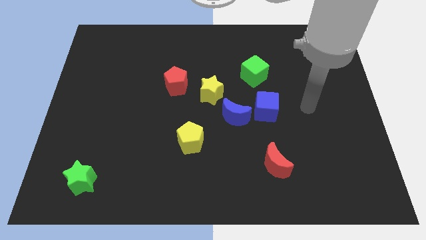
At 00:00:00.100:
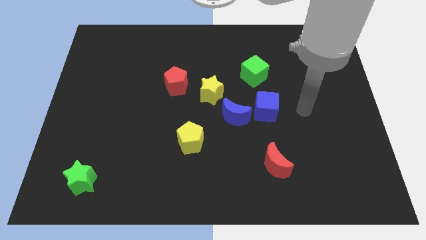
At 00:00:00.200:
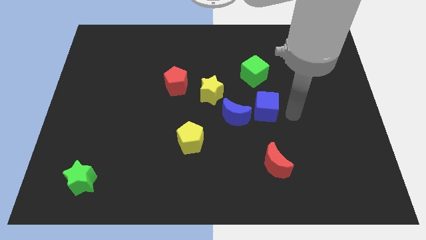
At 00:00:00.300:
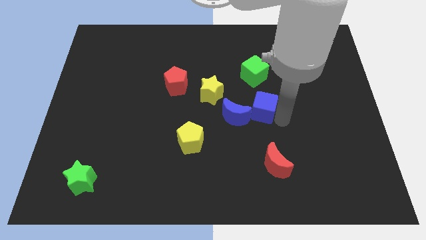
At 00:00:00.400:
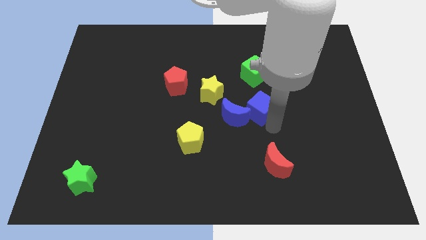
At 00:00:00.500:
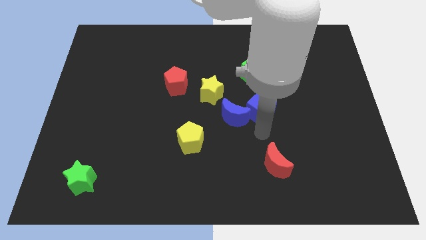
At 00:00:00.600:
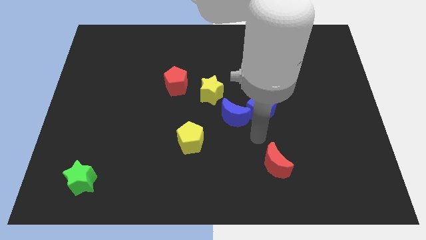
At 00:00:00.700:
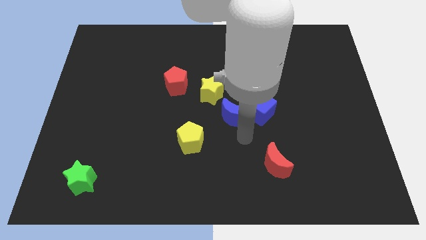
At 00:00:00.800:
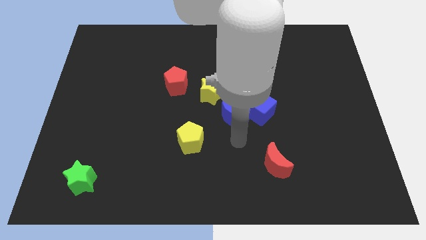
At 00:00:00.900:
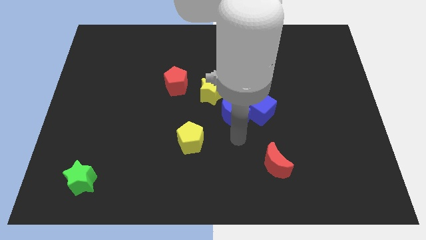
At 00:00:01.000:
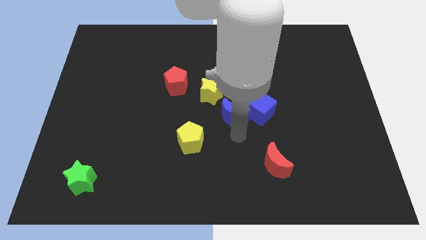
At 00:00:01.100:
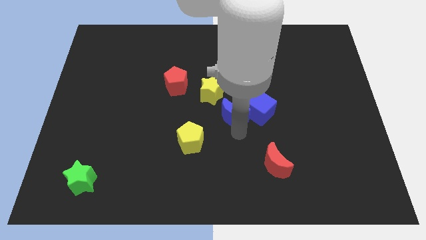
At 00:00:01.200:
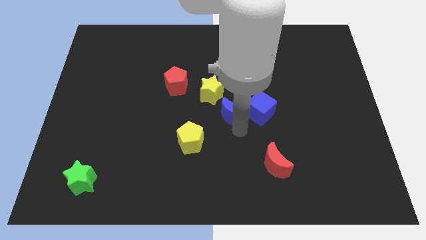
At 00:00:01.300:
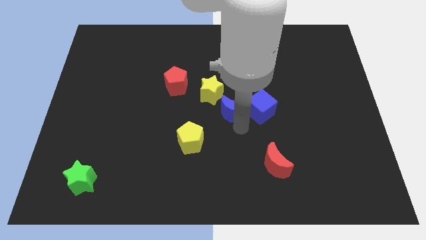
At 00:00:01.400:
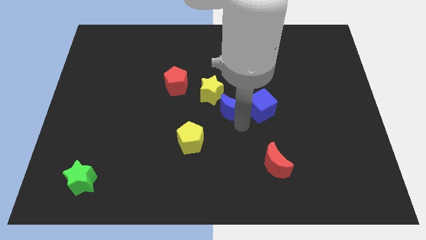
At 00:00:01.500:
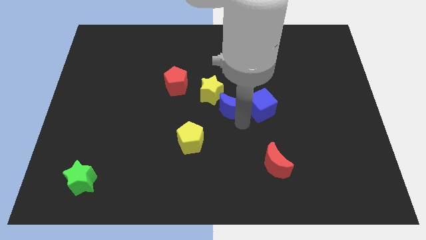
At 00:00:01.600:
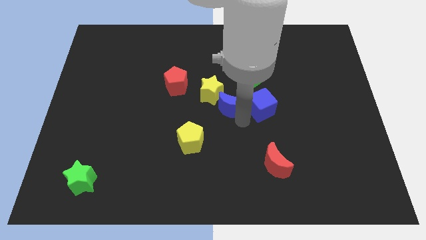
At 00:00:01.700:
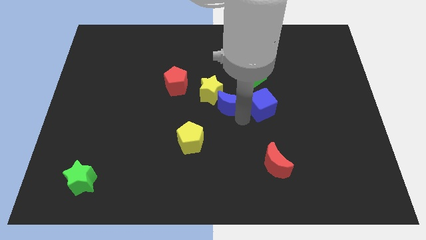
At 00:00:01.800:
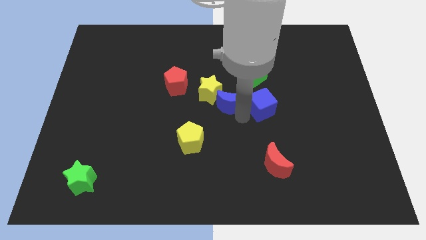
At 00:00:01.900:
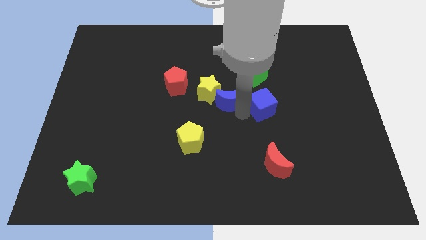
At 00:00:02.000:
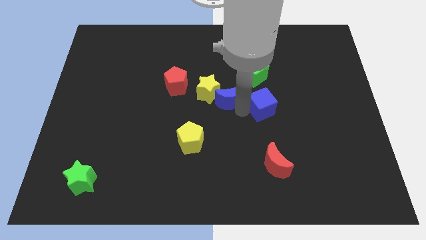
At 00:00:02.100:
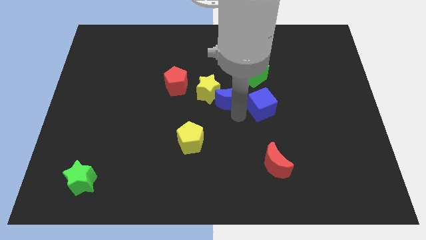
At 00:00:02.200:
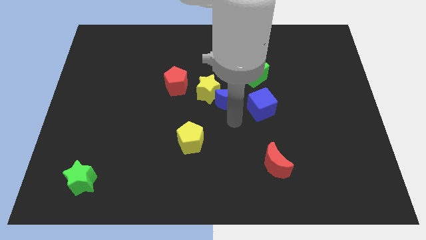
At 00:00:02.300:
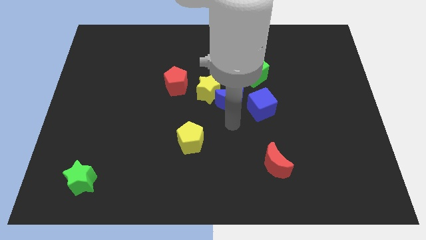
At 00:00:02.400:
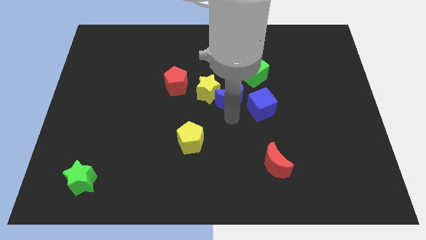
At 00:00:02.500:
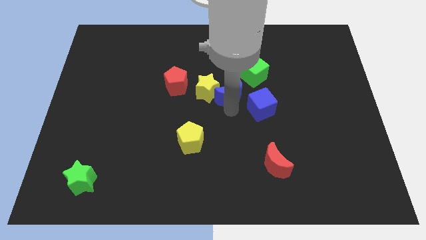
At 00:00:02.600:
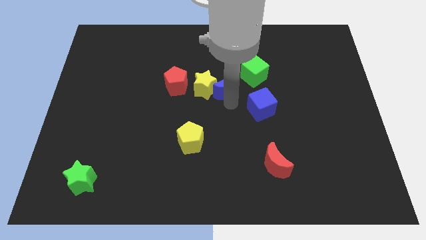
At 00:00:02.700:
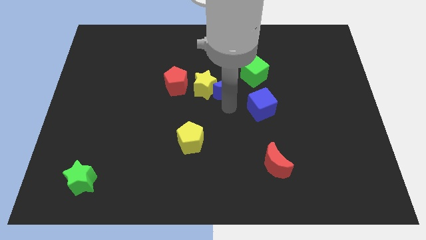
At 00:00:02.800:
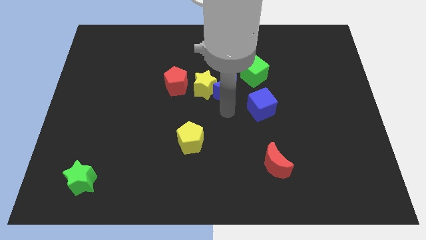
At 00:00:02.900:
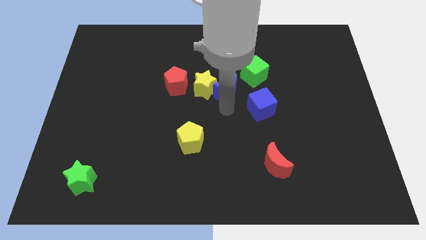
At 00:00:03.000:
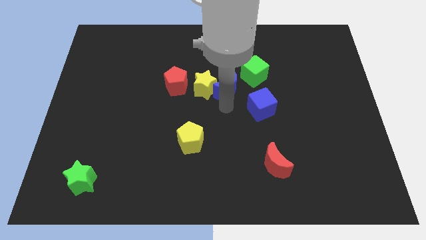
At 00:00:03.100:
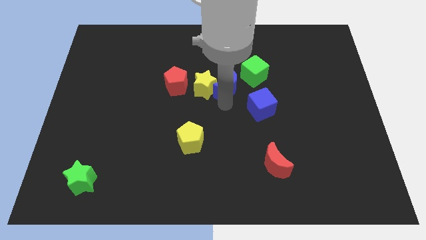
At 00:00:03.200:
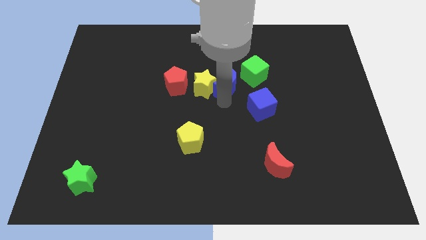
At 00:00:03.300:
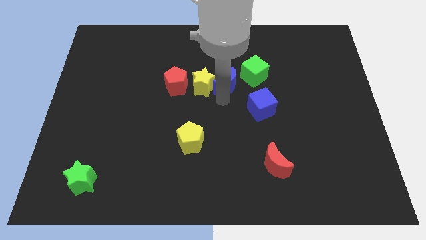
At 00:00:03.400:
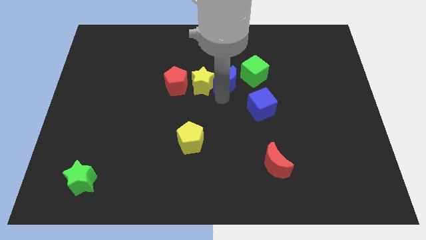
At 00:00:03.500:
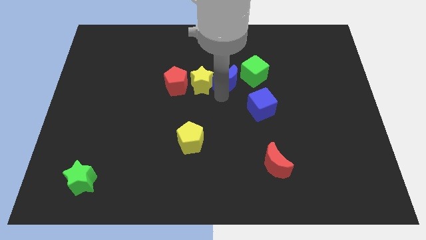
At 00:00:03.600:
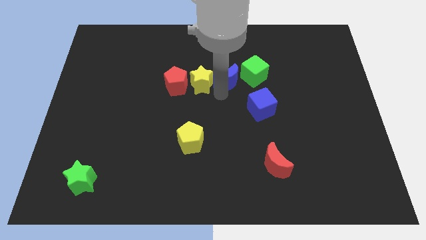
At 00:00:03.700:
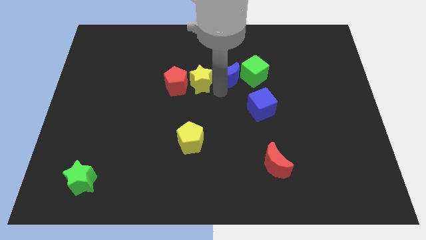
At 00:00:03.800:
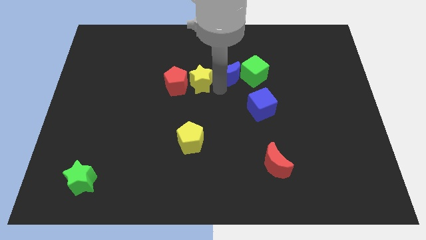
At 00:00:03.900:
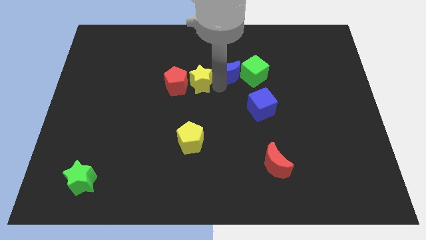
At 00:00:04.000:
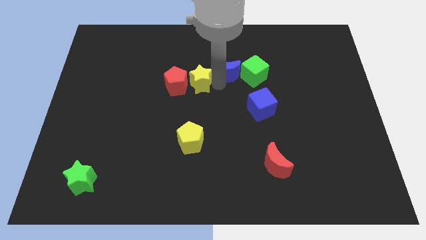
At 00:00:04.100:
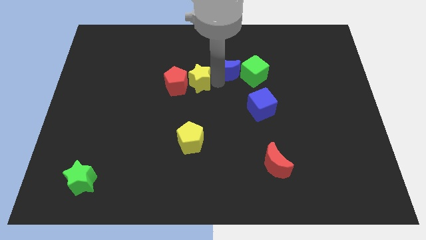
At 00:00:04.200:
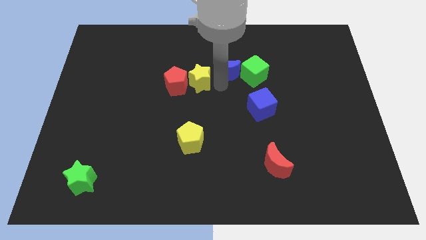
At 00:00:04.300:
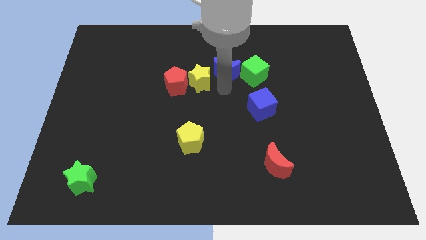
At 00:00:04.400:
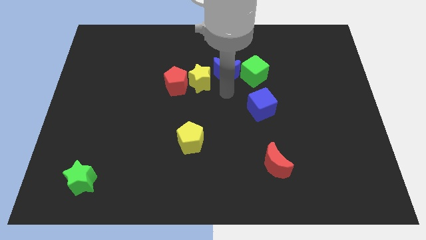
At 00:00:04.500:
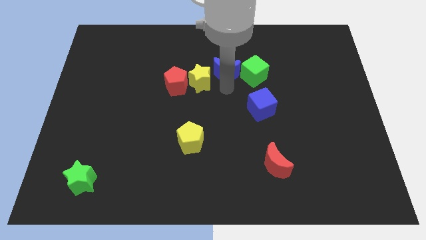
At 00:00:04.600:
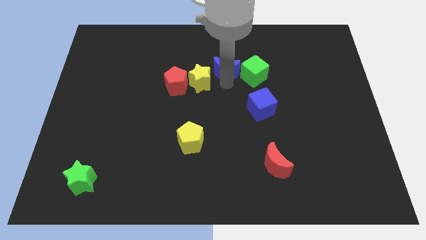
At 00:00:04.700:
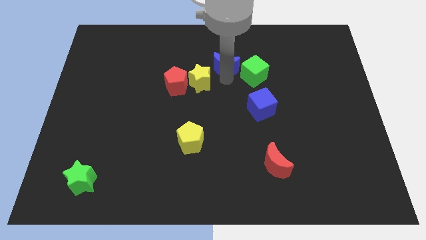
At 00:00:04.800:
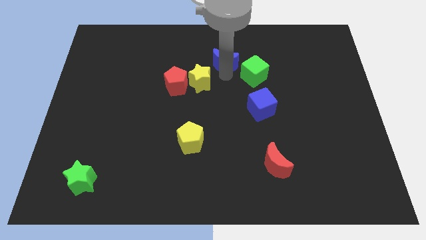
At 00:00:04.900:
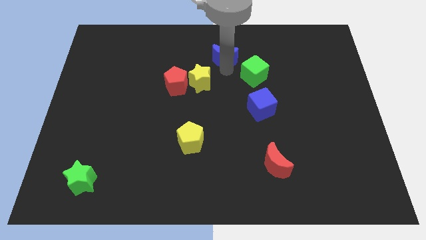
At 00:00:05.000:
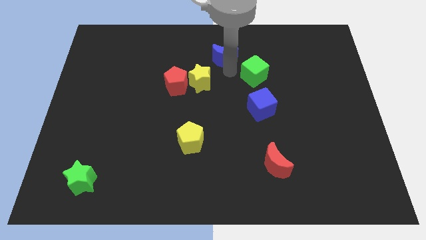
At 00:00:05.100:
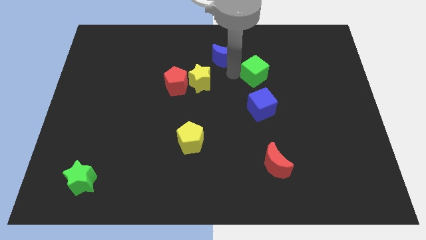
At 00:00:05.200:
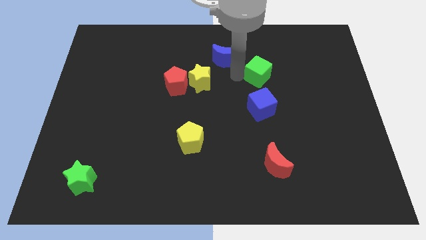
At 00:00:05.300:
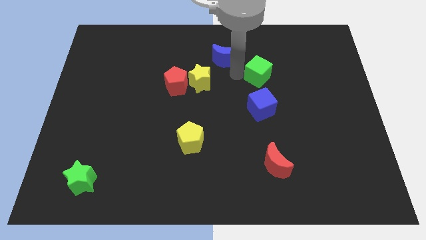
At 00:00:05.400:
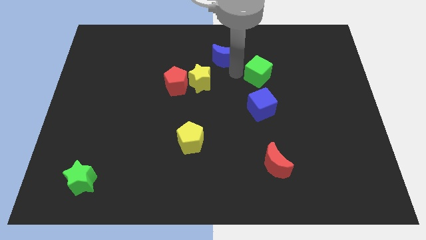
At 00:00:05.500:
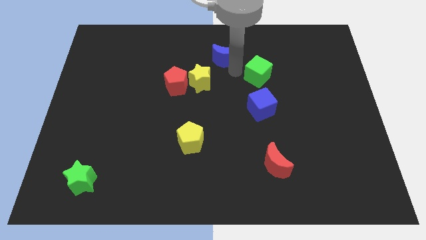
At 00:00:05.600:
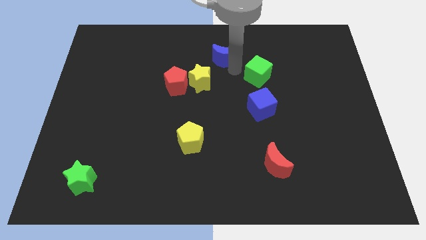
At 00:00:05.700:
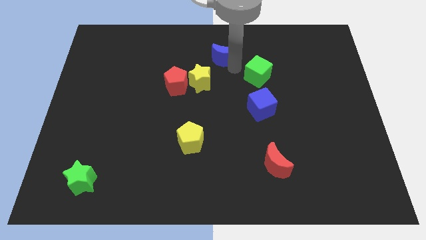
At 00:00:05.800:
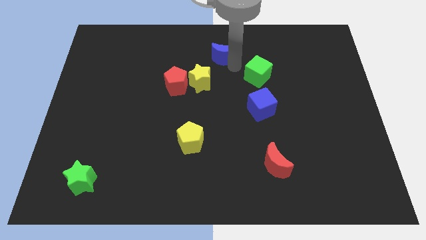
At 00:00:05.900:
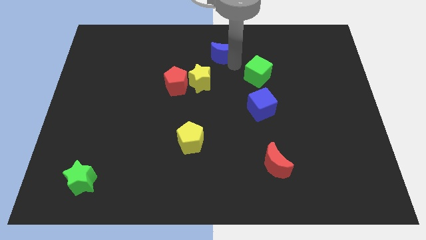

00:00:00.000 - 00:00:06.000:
slide the blue moon to the towards your base

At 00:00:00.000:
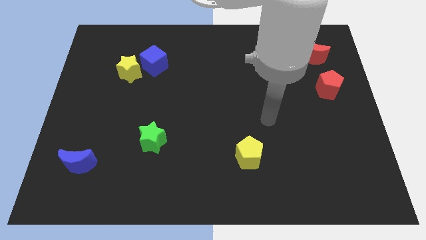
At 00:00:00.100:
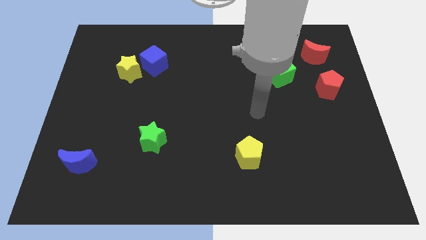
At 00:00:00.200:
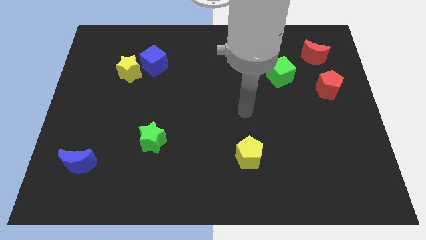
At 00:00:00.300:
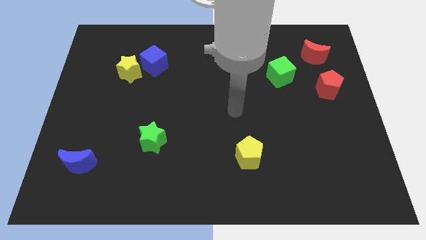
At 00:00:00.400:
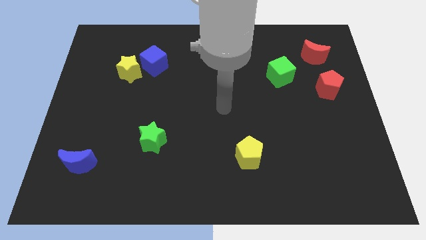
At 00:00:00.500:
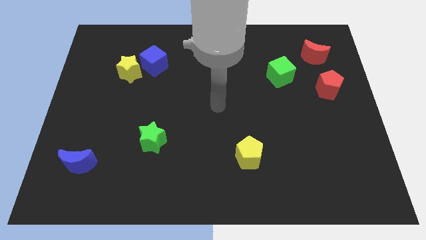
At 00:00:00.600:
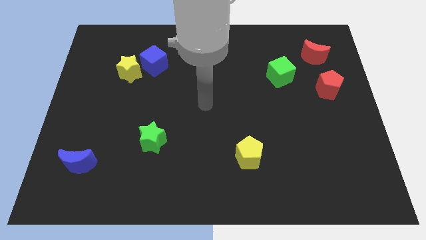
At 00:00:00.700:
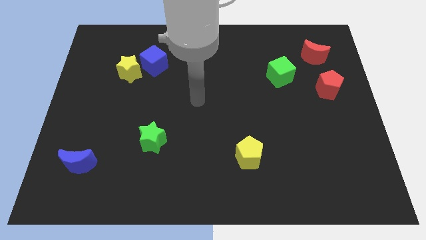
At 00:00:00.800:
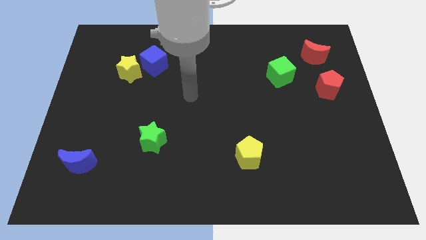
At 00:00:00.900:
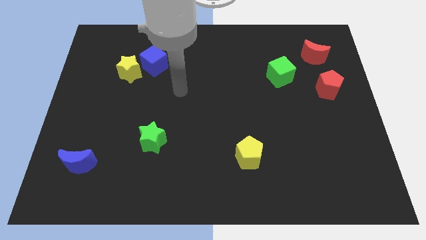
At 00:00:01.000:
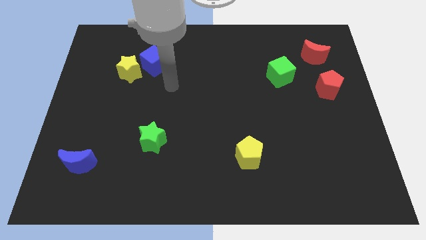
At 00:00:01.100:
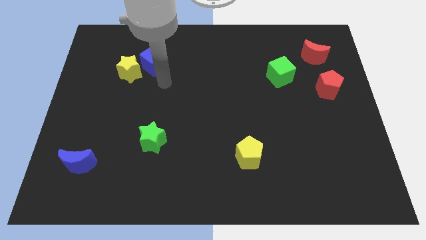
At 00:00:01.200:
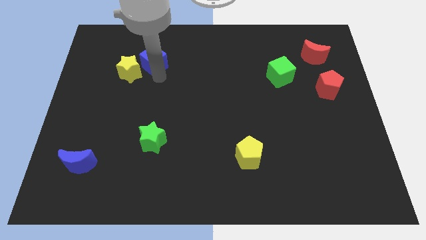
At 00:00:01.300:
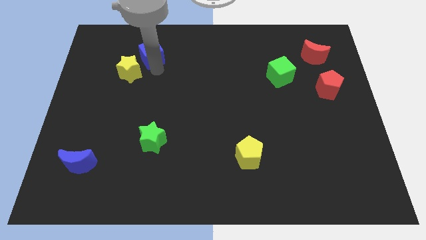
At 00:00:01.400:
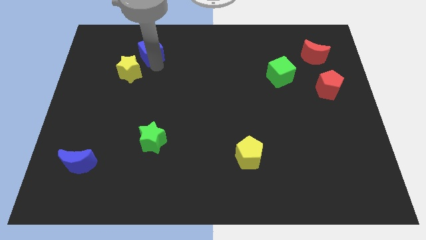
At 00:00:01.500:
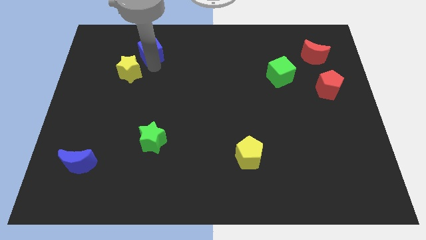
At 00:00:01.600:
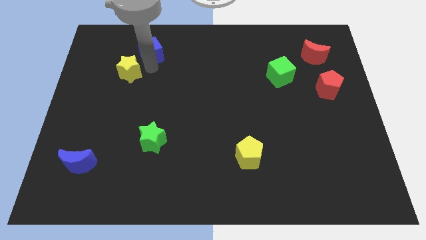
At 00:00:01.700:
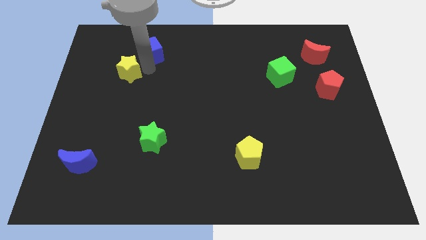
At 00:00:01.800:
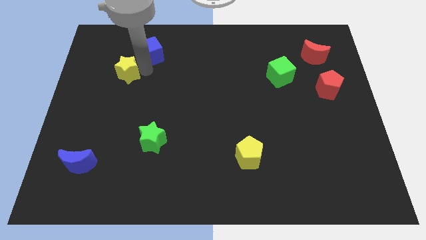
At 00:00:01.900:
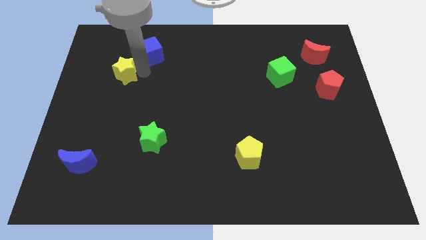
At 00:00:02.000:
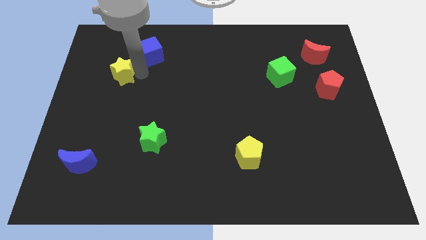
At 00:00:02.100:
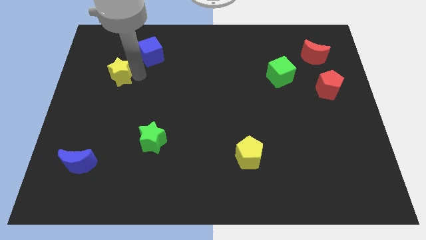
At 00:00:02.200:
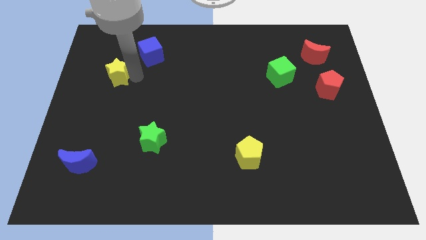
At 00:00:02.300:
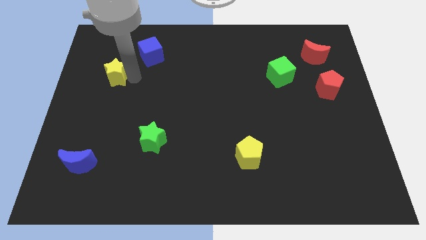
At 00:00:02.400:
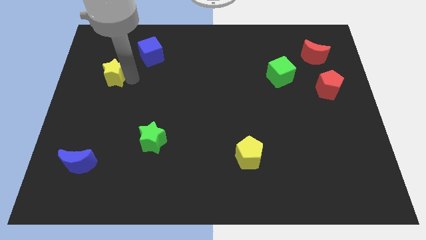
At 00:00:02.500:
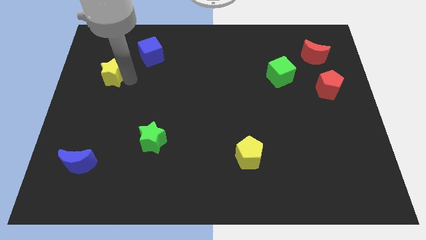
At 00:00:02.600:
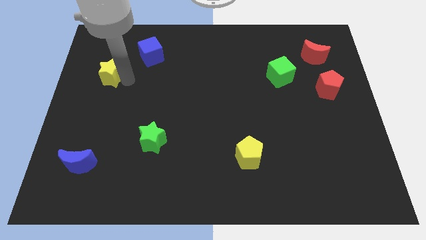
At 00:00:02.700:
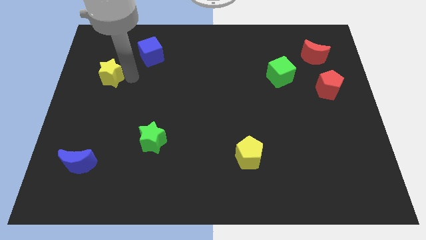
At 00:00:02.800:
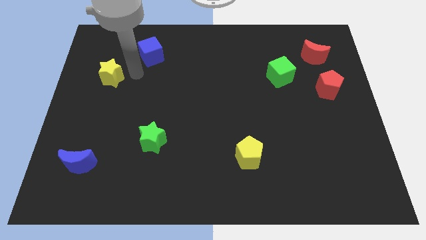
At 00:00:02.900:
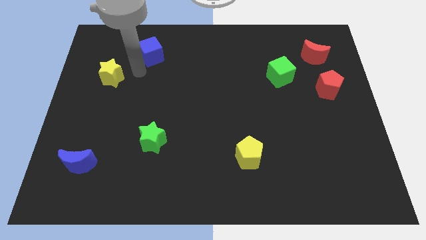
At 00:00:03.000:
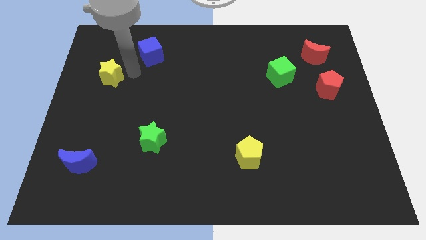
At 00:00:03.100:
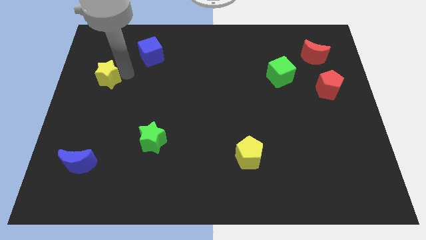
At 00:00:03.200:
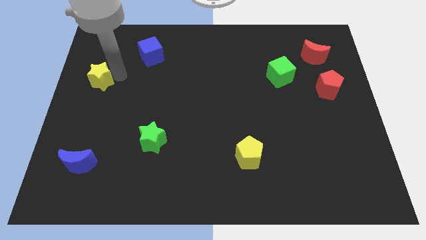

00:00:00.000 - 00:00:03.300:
put the yellow star to the left side
